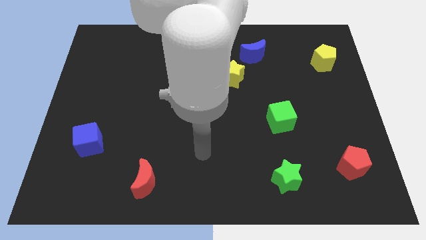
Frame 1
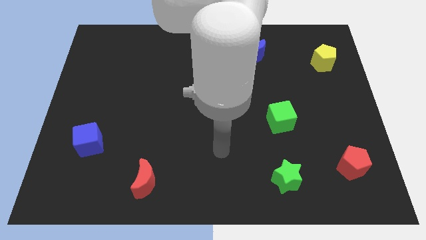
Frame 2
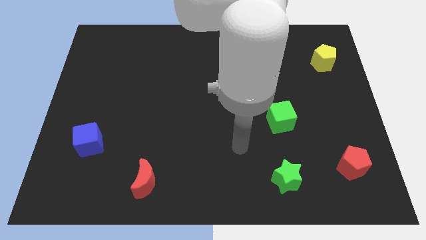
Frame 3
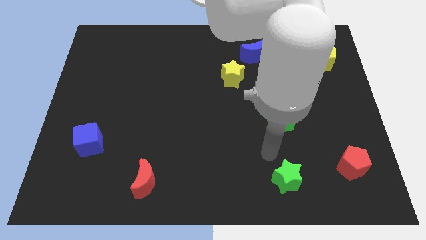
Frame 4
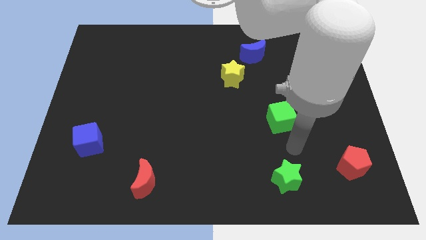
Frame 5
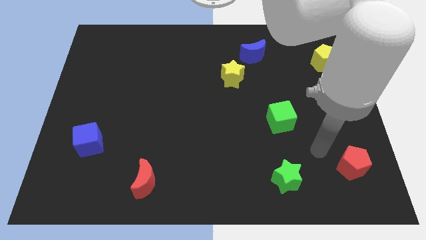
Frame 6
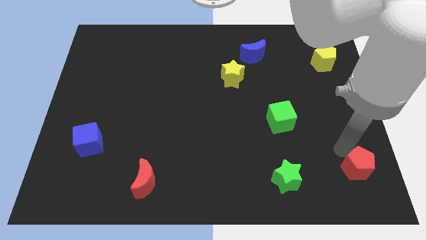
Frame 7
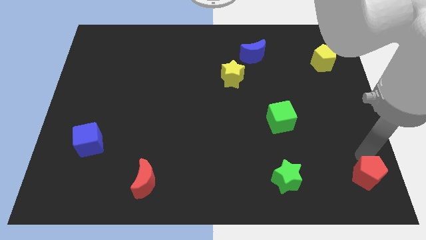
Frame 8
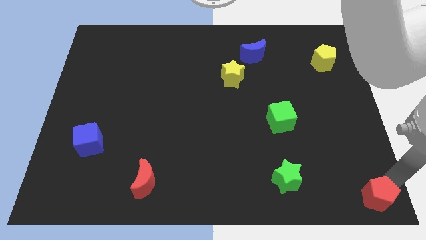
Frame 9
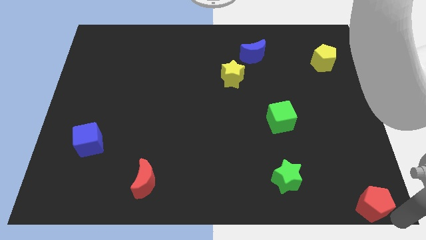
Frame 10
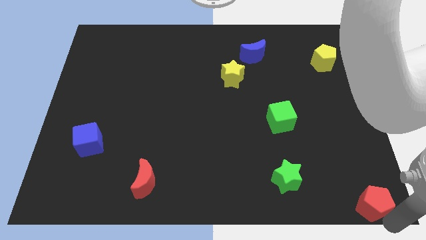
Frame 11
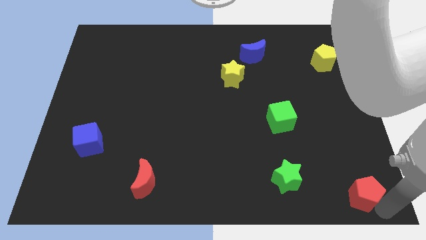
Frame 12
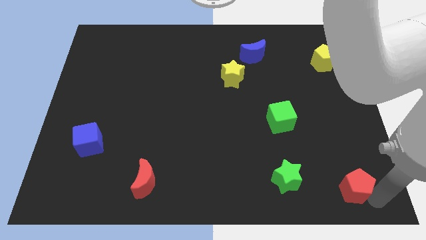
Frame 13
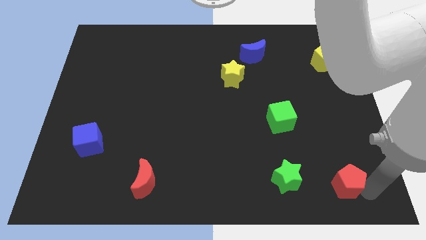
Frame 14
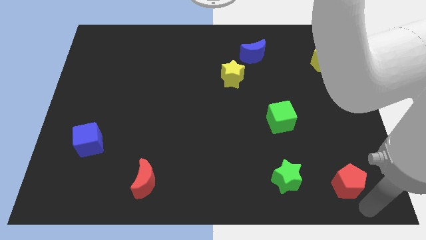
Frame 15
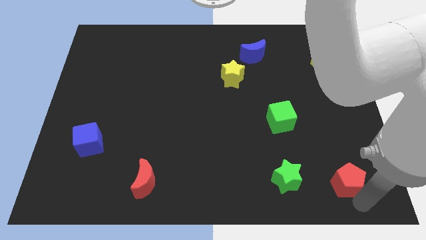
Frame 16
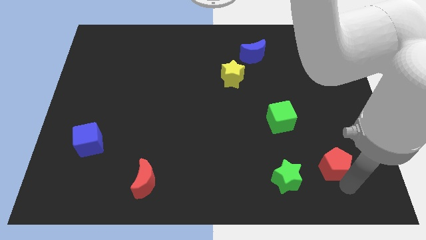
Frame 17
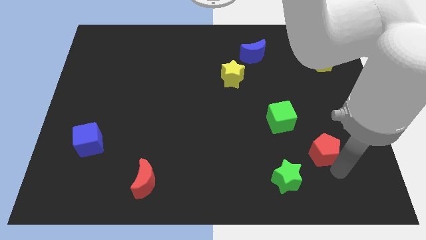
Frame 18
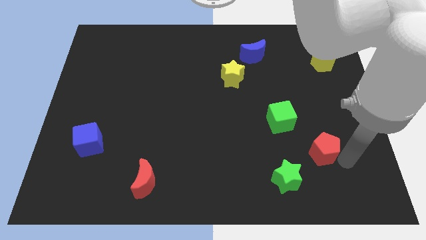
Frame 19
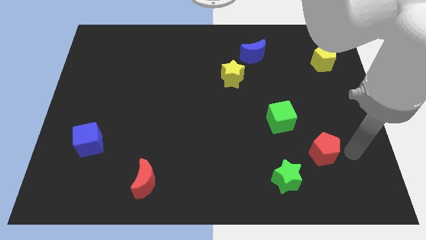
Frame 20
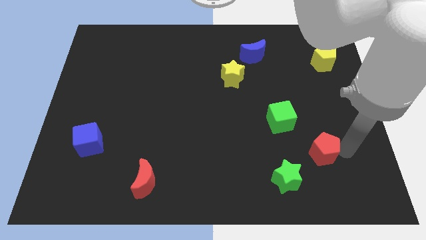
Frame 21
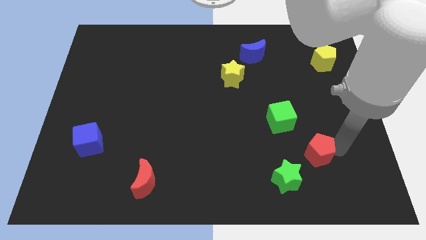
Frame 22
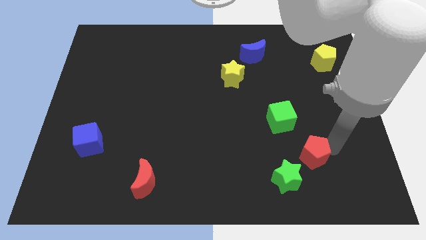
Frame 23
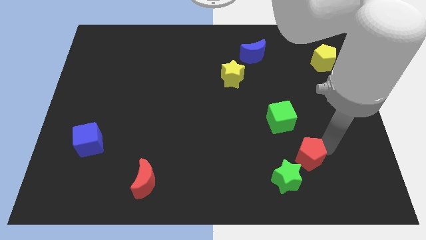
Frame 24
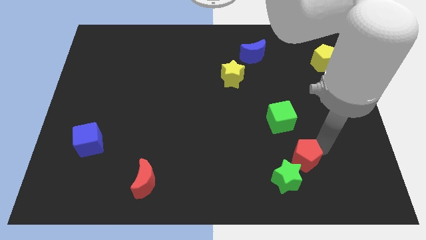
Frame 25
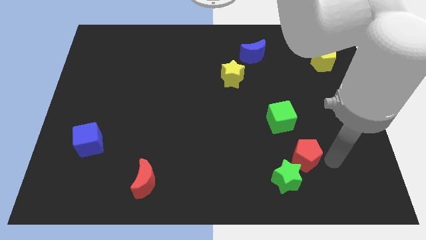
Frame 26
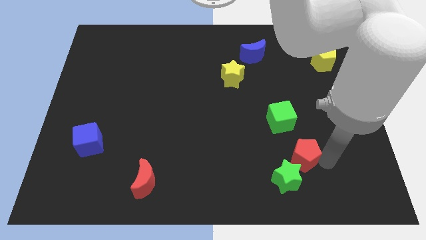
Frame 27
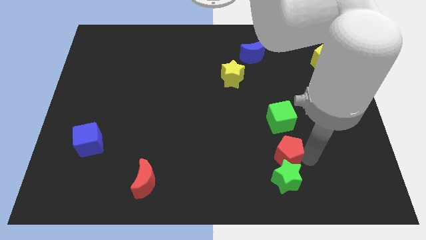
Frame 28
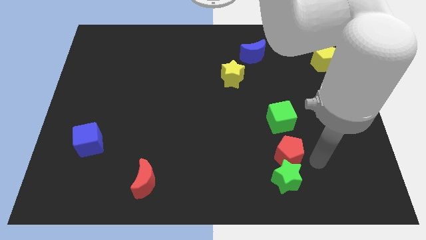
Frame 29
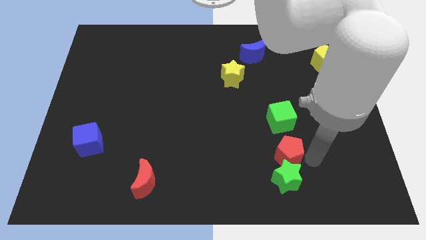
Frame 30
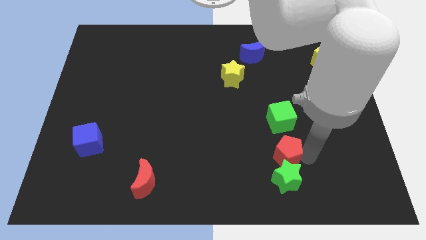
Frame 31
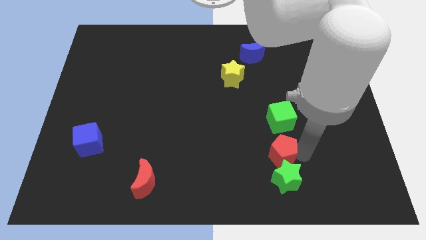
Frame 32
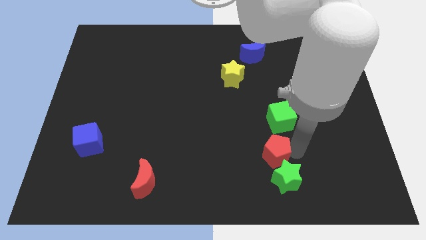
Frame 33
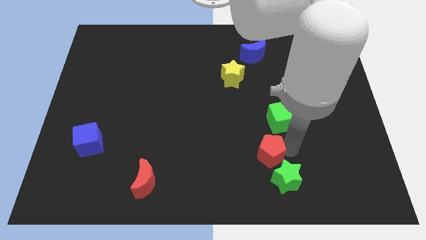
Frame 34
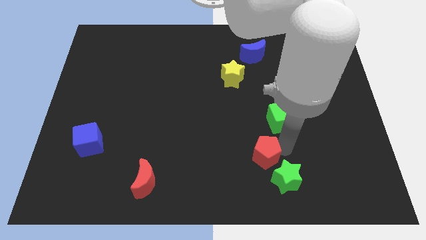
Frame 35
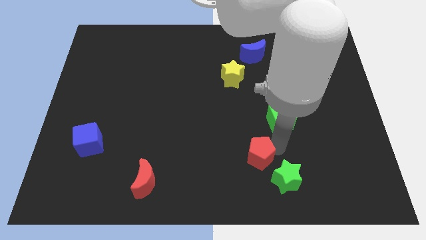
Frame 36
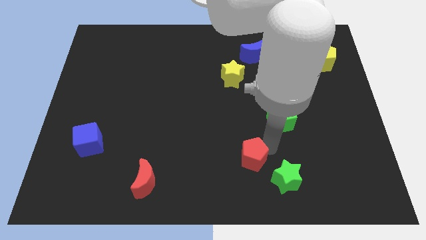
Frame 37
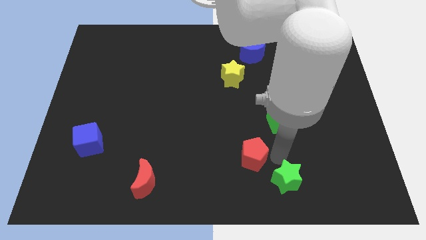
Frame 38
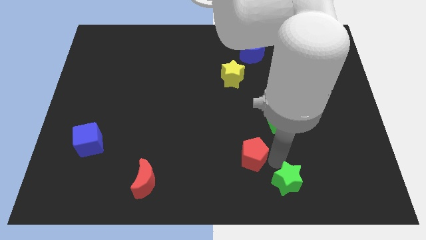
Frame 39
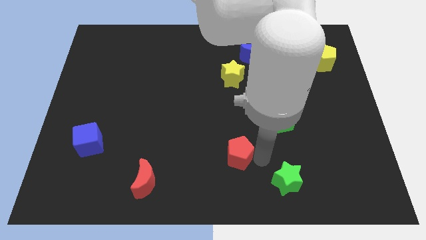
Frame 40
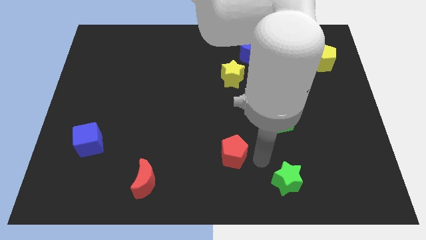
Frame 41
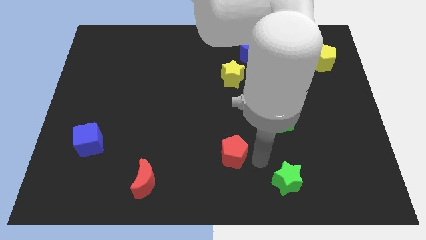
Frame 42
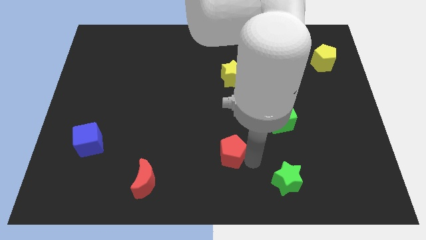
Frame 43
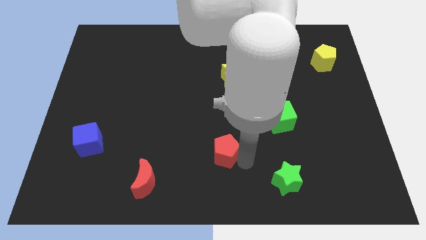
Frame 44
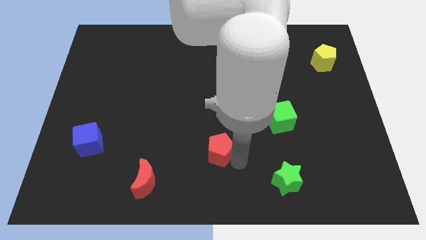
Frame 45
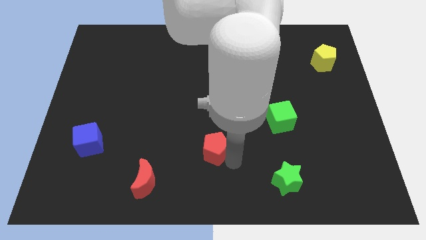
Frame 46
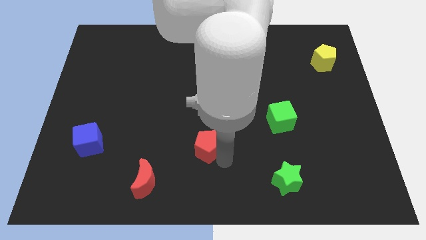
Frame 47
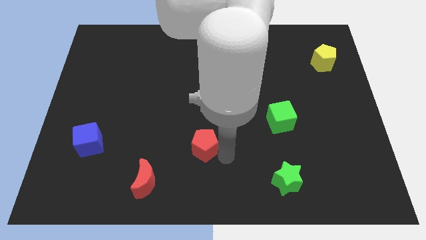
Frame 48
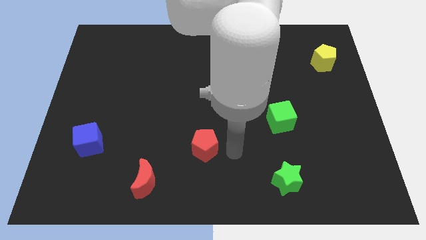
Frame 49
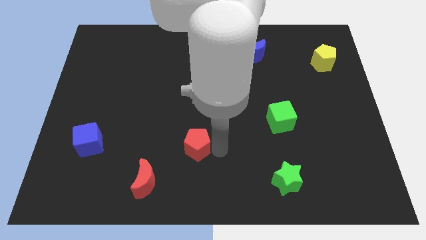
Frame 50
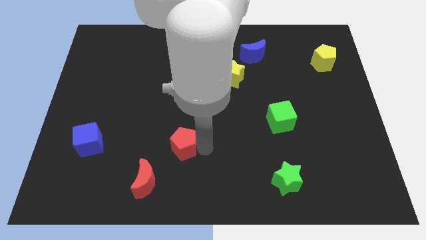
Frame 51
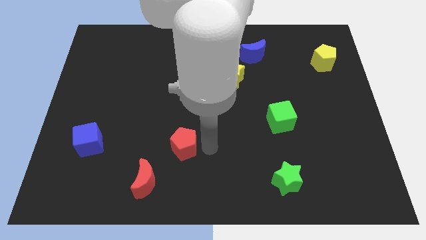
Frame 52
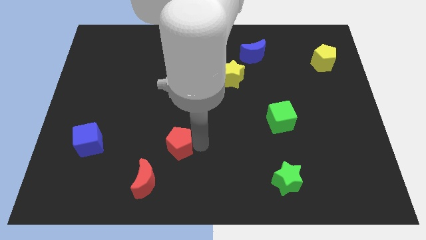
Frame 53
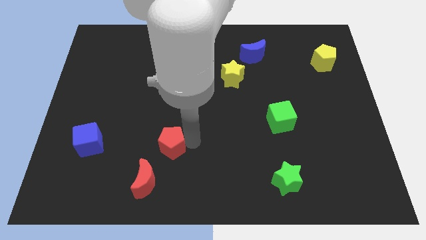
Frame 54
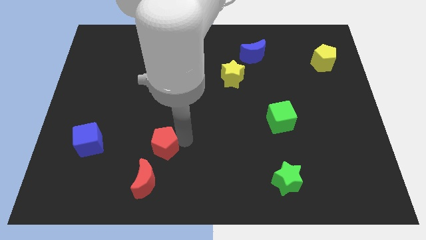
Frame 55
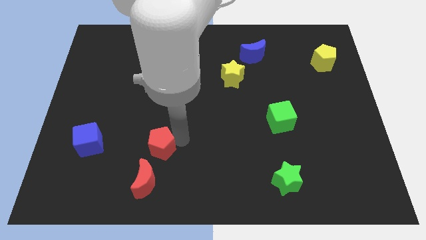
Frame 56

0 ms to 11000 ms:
push the red pentagon to the right of the blue cube

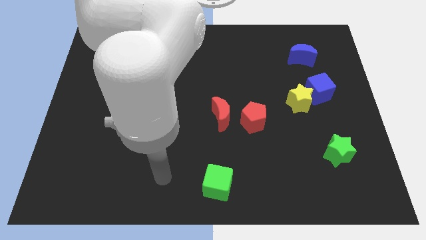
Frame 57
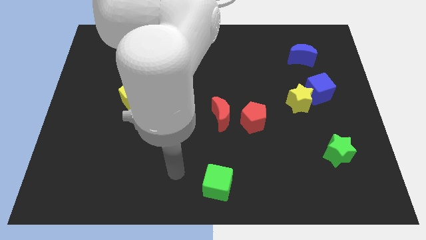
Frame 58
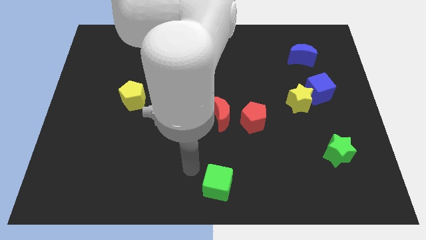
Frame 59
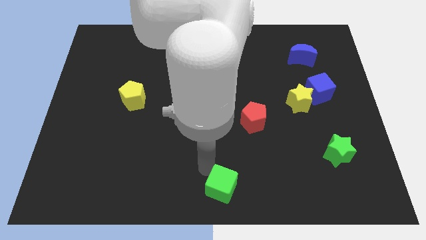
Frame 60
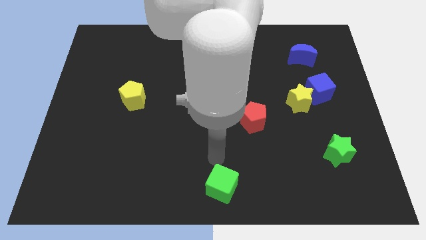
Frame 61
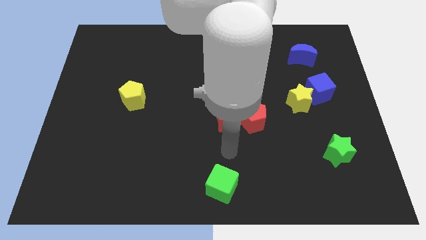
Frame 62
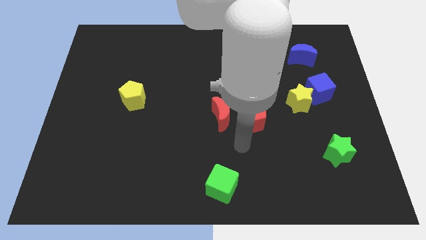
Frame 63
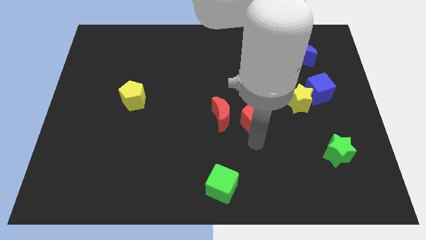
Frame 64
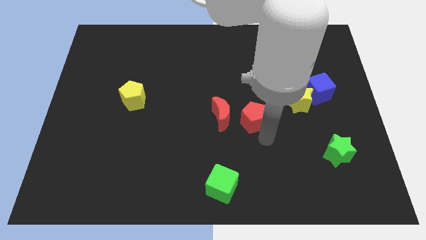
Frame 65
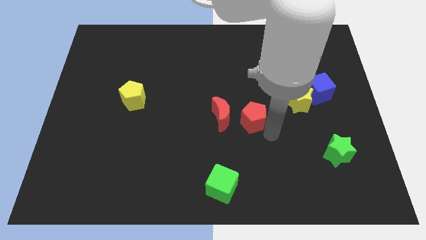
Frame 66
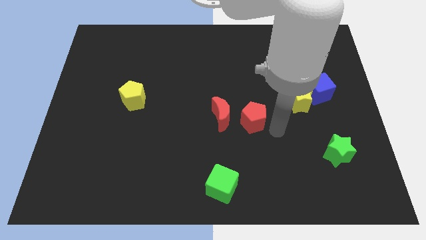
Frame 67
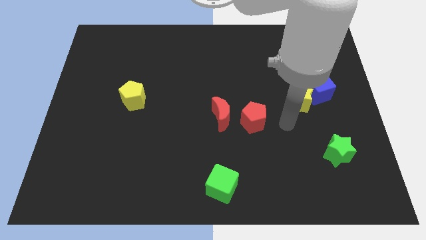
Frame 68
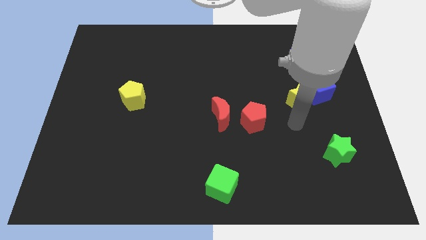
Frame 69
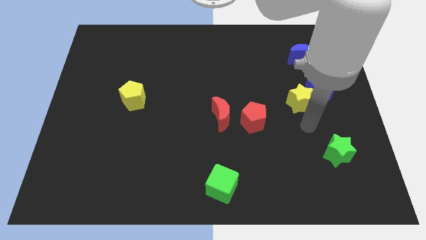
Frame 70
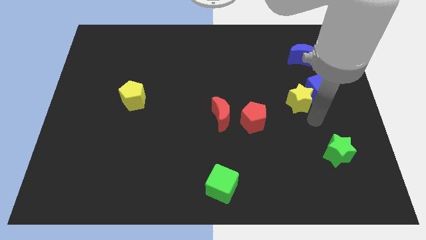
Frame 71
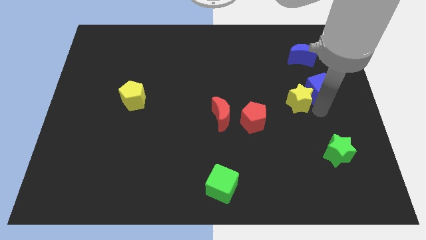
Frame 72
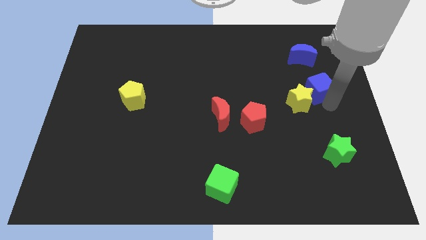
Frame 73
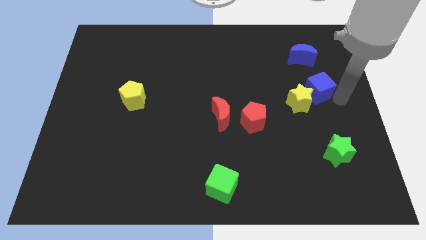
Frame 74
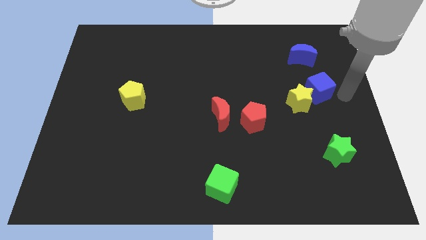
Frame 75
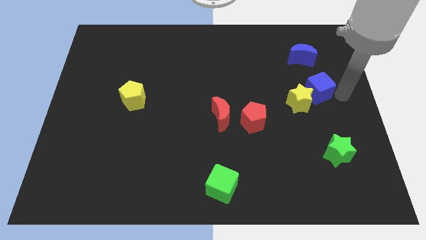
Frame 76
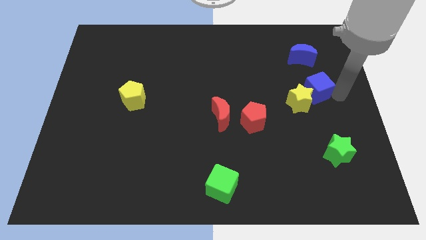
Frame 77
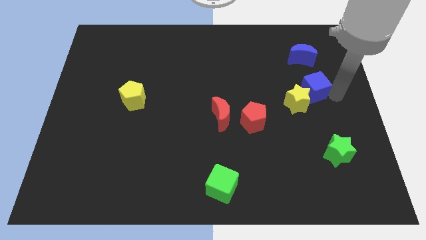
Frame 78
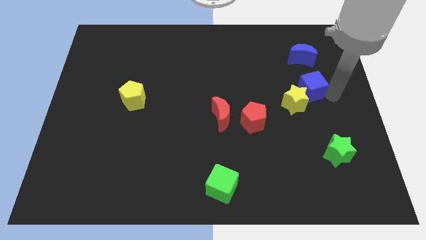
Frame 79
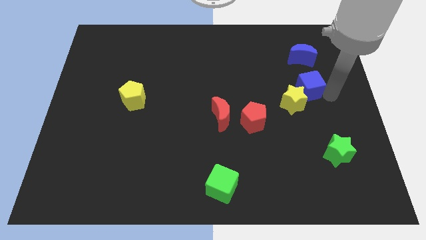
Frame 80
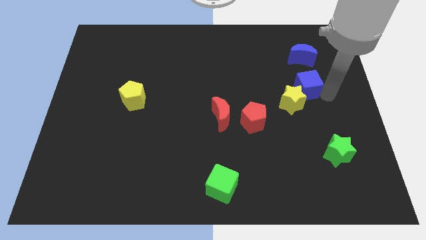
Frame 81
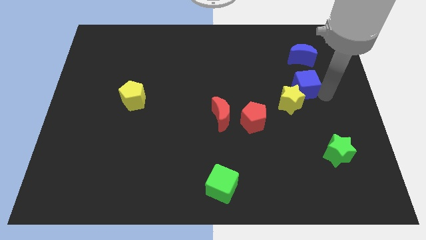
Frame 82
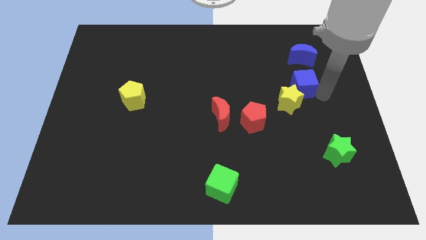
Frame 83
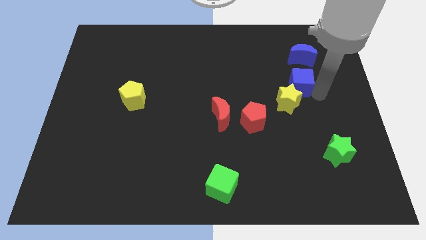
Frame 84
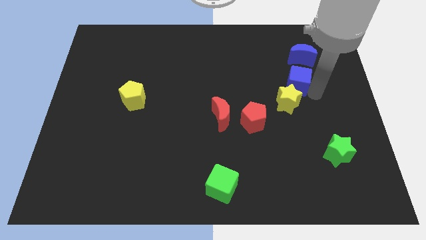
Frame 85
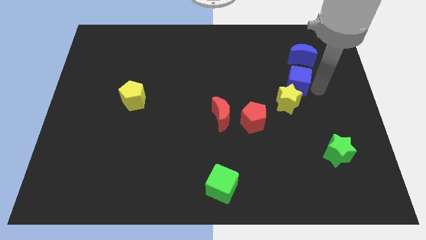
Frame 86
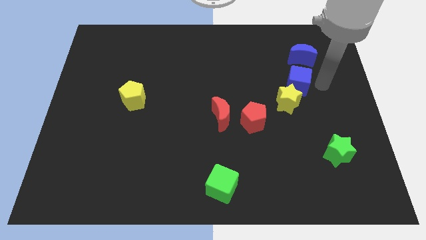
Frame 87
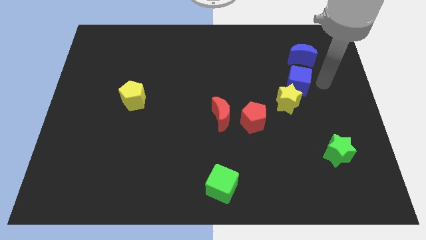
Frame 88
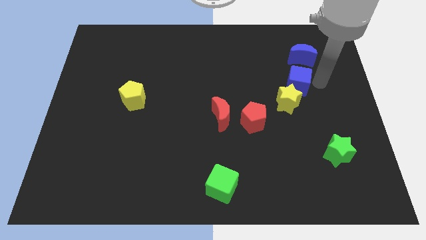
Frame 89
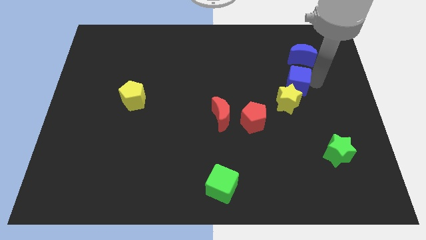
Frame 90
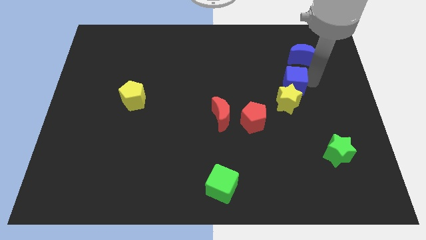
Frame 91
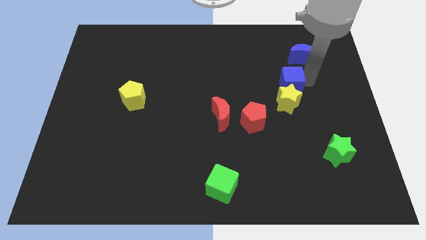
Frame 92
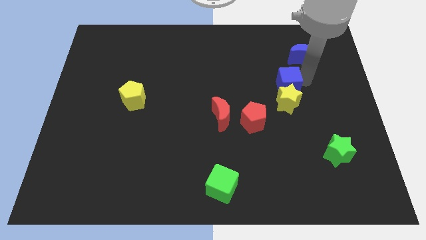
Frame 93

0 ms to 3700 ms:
push the blue cube diagonally up and to the left of the yellow star
